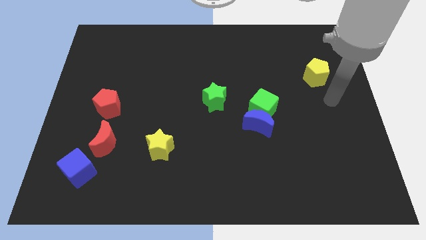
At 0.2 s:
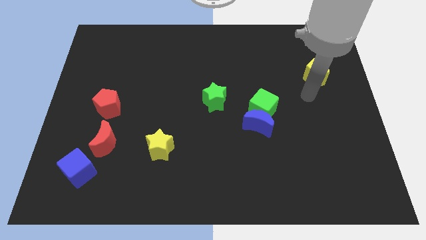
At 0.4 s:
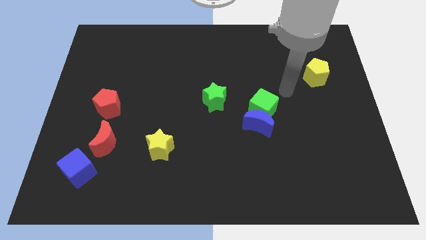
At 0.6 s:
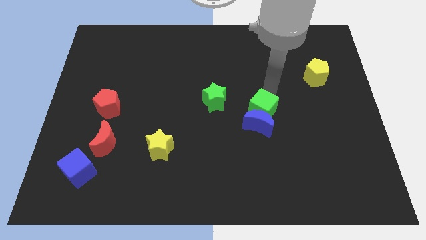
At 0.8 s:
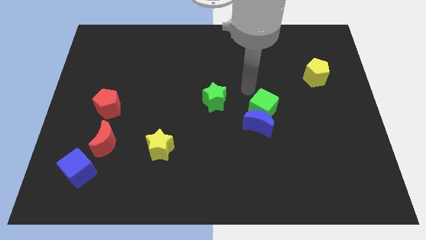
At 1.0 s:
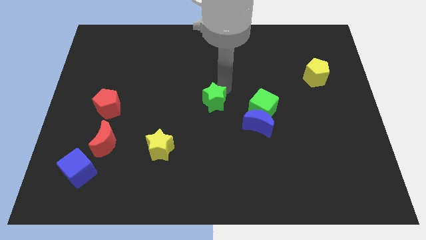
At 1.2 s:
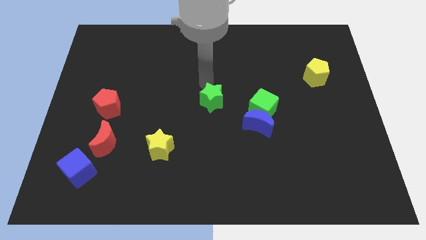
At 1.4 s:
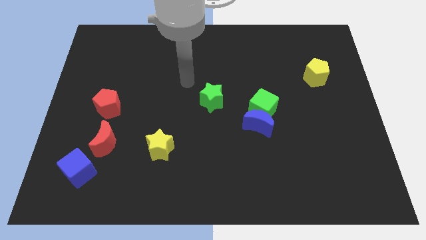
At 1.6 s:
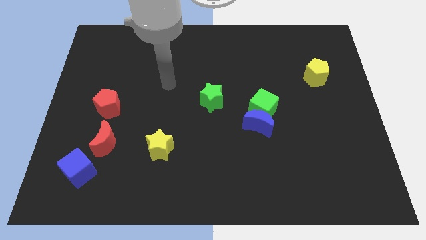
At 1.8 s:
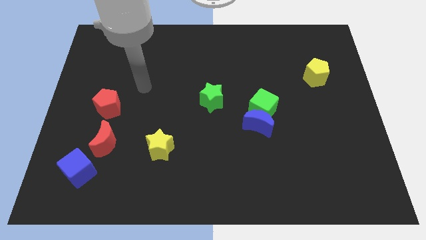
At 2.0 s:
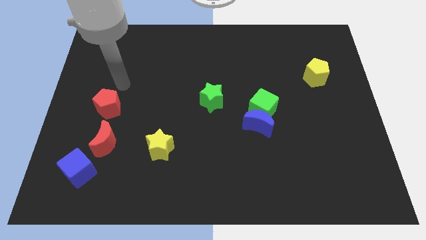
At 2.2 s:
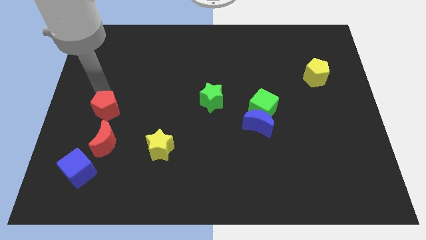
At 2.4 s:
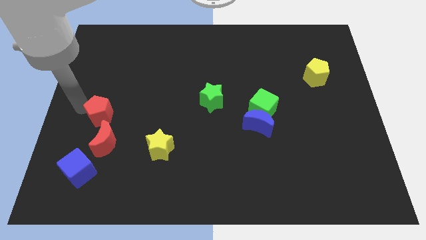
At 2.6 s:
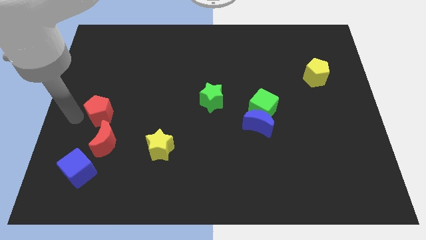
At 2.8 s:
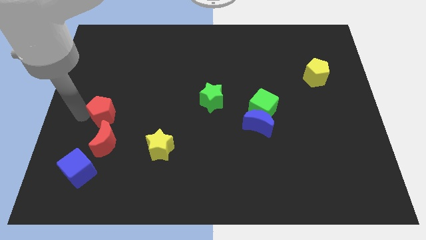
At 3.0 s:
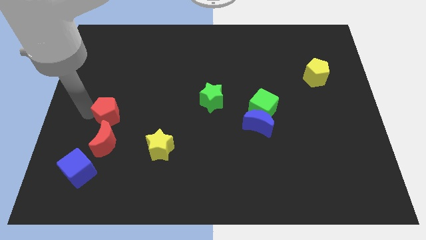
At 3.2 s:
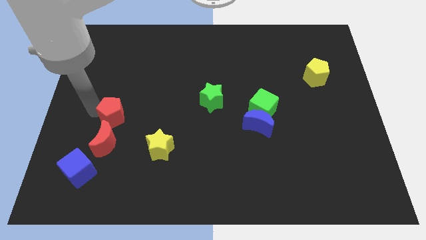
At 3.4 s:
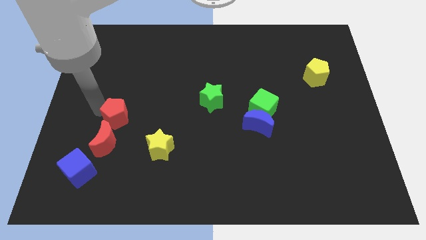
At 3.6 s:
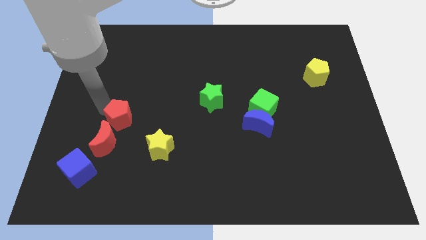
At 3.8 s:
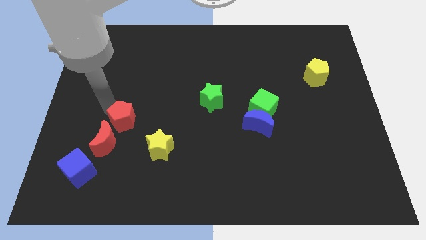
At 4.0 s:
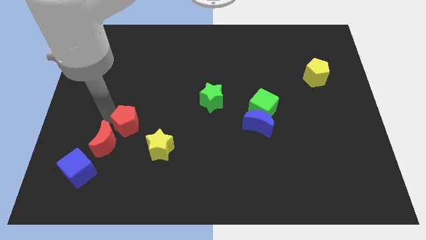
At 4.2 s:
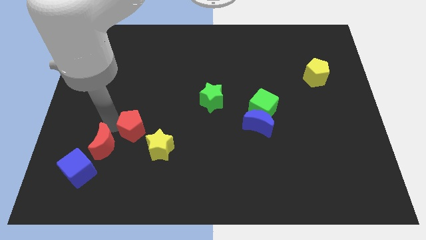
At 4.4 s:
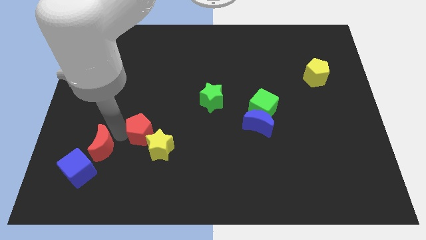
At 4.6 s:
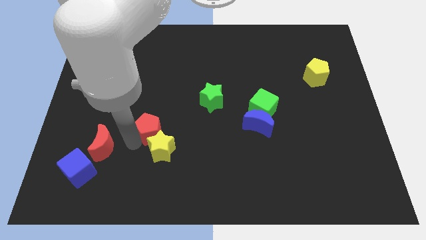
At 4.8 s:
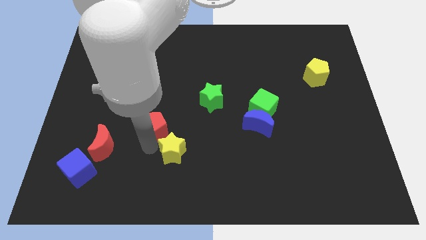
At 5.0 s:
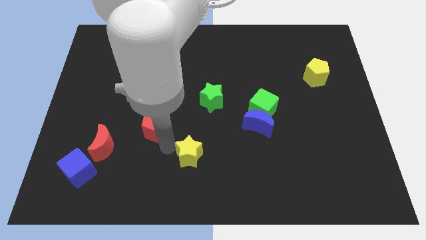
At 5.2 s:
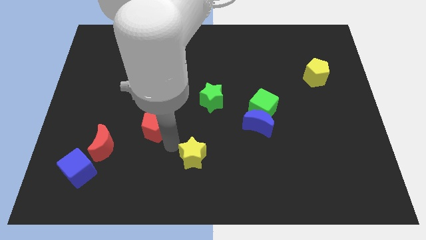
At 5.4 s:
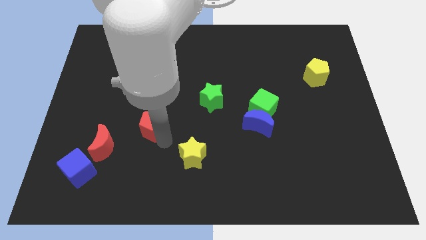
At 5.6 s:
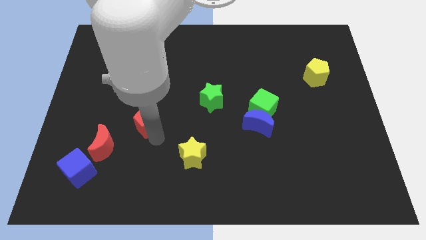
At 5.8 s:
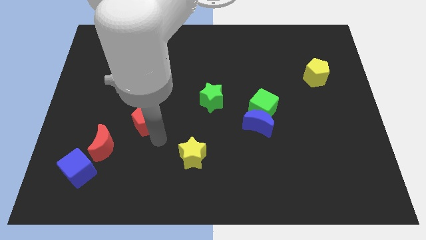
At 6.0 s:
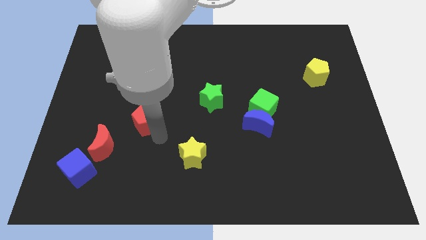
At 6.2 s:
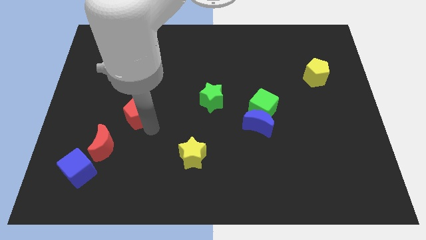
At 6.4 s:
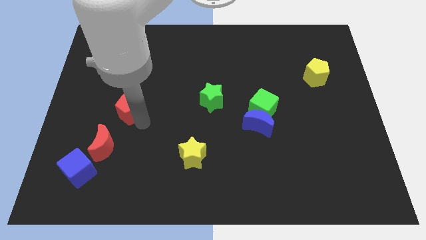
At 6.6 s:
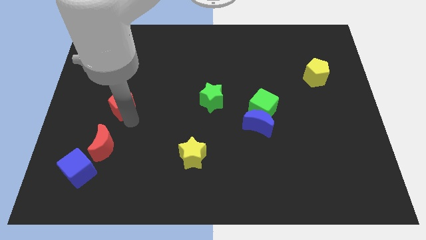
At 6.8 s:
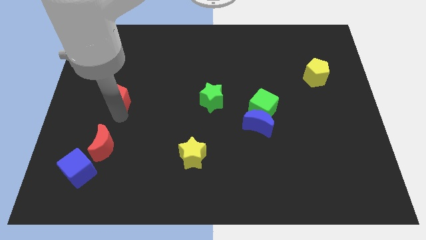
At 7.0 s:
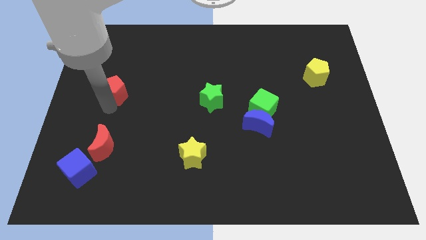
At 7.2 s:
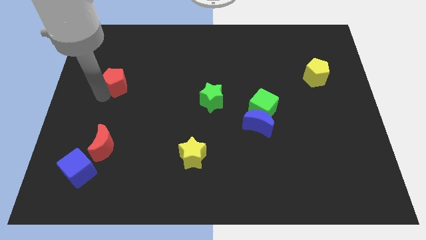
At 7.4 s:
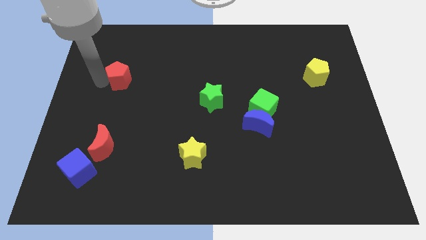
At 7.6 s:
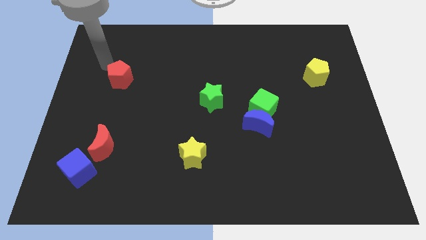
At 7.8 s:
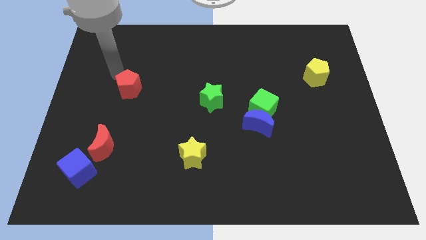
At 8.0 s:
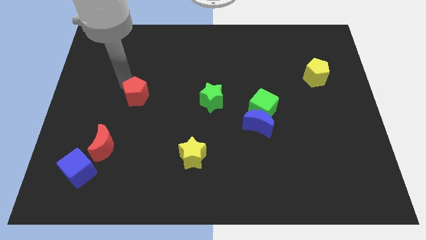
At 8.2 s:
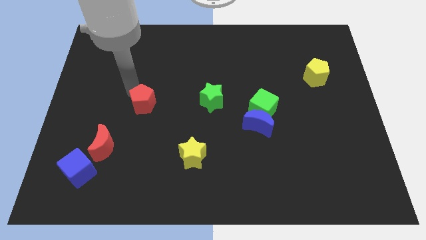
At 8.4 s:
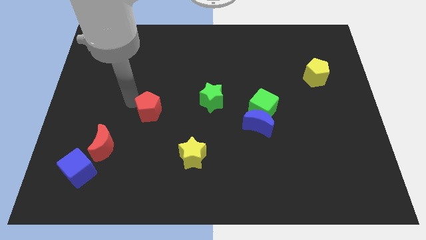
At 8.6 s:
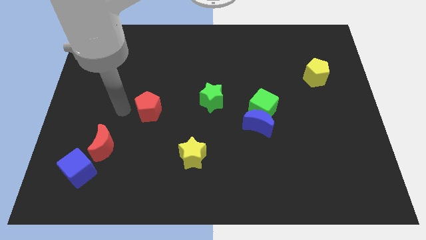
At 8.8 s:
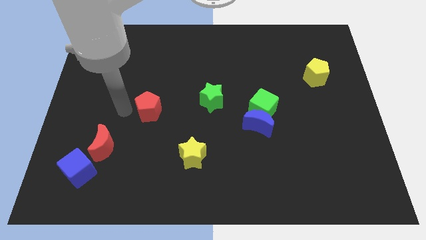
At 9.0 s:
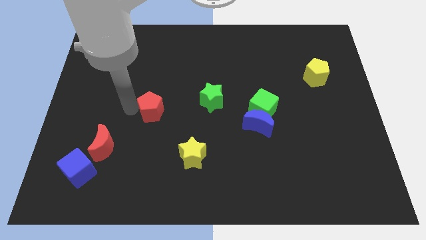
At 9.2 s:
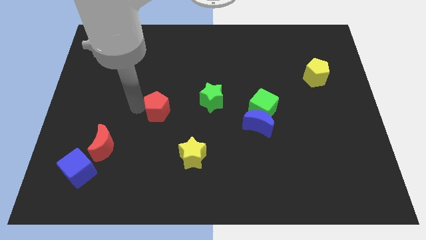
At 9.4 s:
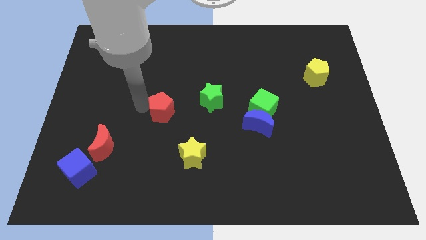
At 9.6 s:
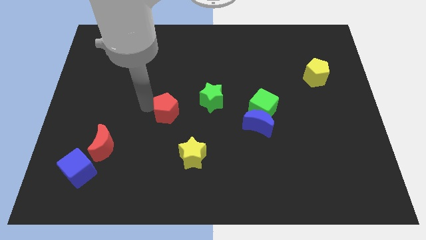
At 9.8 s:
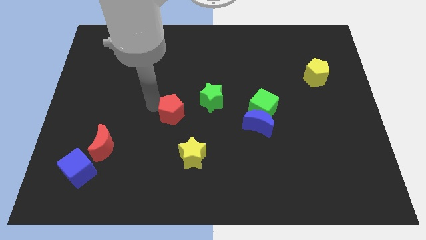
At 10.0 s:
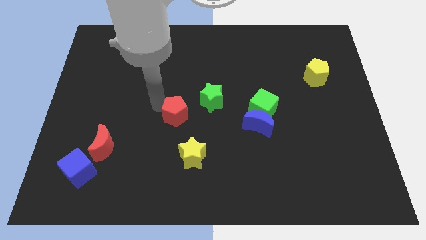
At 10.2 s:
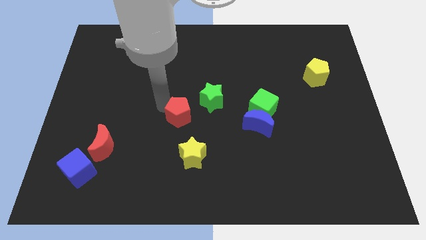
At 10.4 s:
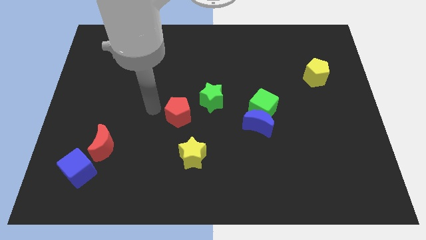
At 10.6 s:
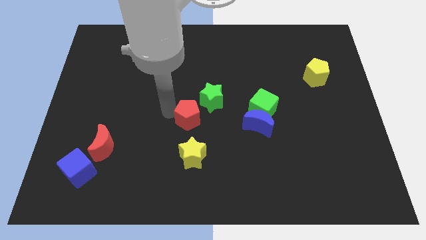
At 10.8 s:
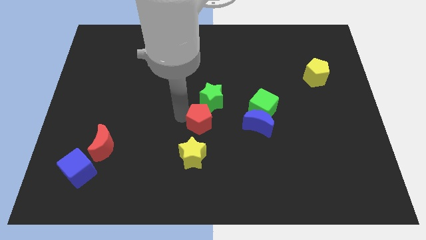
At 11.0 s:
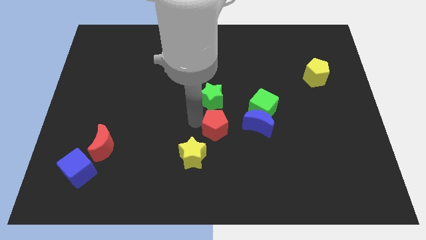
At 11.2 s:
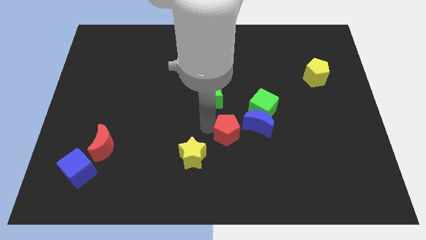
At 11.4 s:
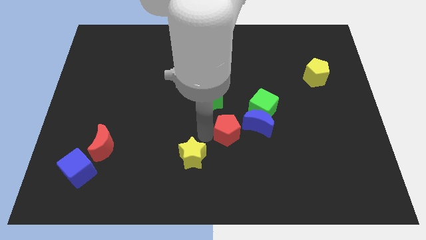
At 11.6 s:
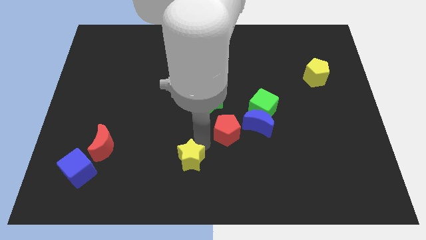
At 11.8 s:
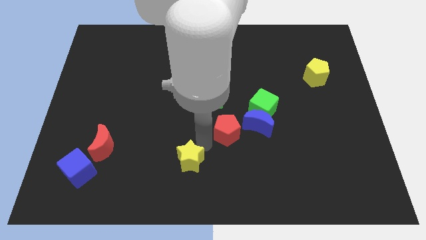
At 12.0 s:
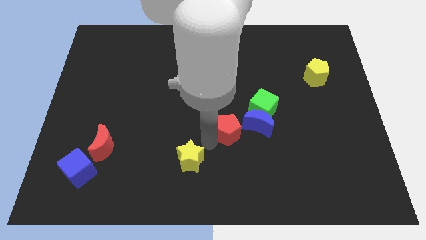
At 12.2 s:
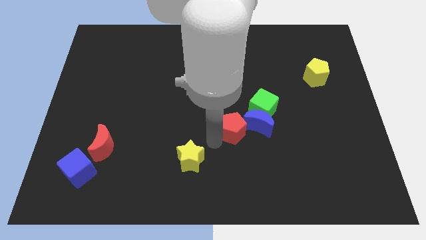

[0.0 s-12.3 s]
move the red pentagon to the blue moon

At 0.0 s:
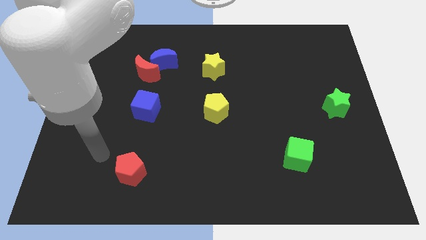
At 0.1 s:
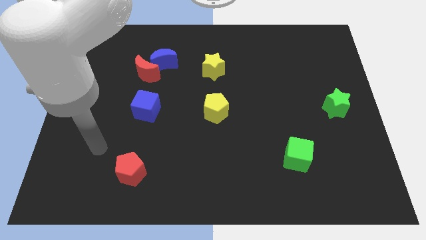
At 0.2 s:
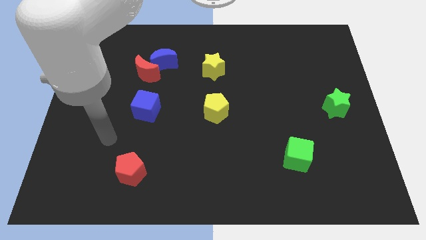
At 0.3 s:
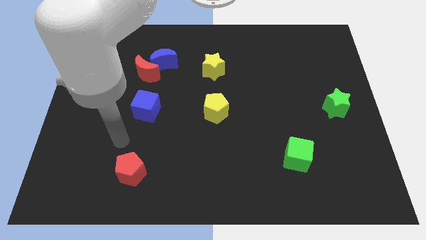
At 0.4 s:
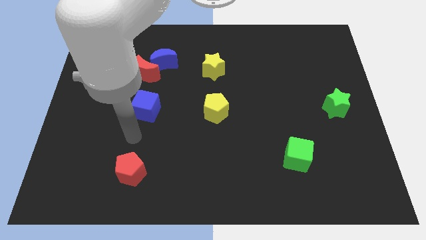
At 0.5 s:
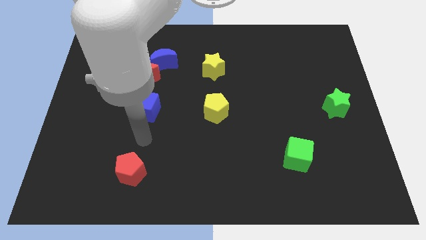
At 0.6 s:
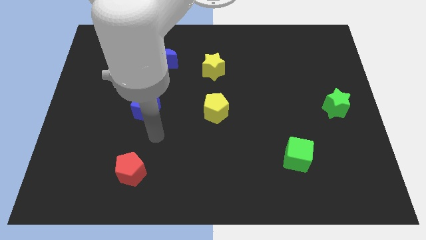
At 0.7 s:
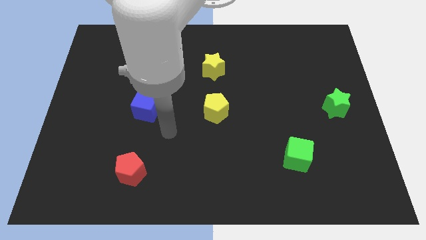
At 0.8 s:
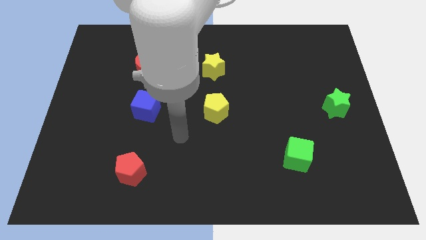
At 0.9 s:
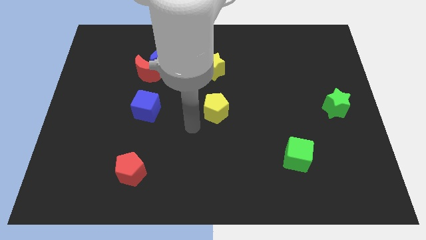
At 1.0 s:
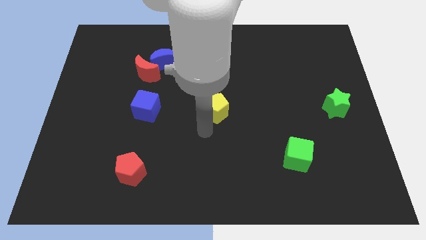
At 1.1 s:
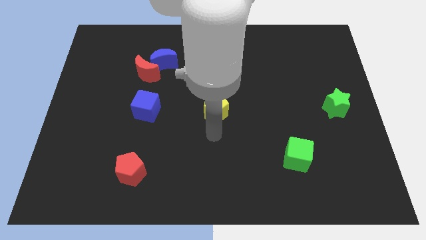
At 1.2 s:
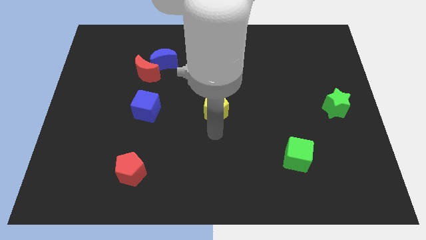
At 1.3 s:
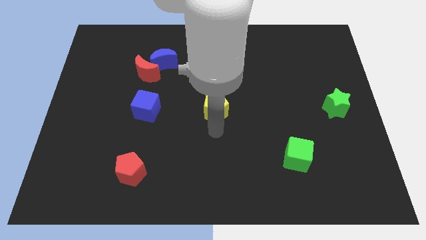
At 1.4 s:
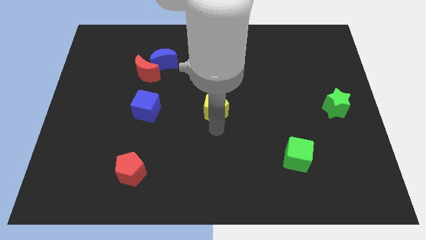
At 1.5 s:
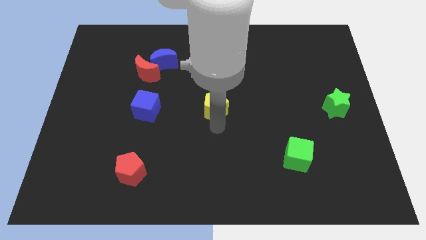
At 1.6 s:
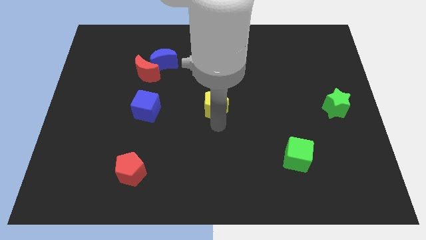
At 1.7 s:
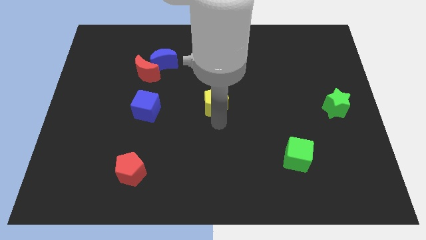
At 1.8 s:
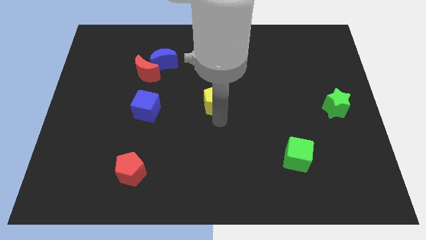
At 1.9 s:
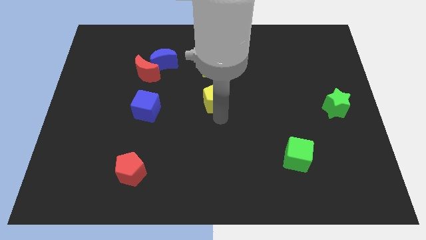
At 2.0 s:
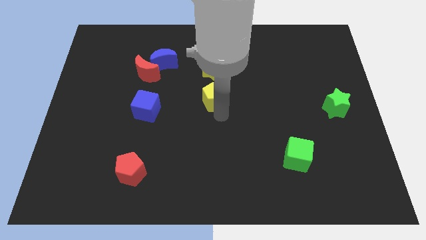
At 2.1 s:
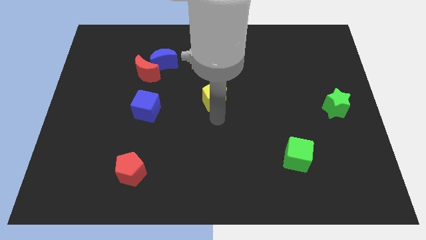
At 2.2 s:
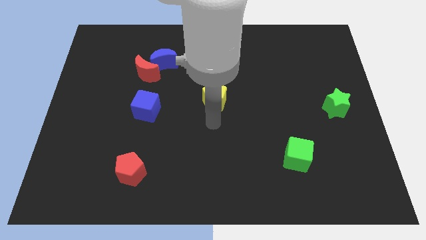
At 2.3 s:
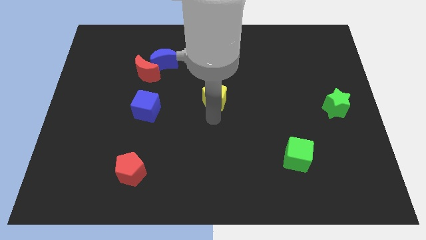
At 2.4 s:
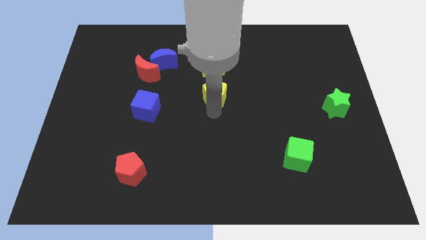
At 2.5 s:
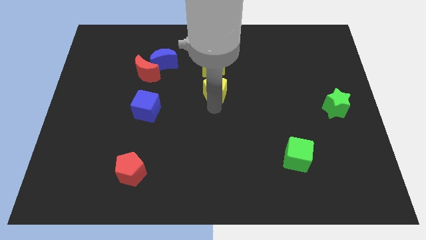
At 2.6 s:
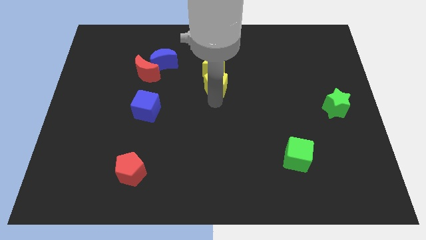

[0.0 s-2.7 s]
put the yellow pentagon close to the yellow star
